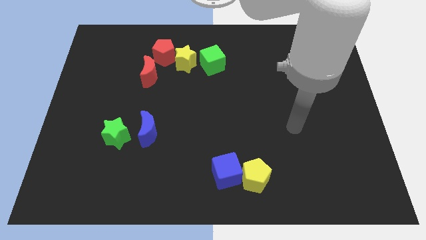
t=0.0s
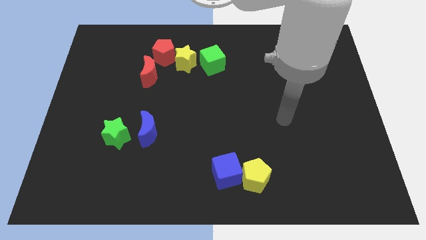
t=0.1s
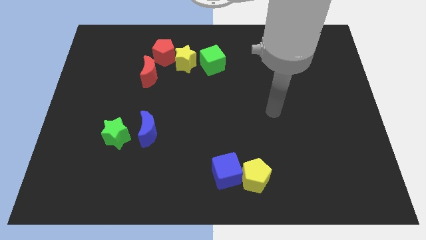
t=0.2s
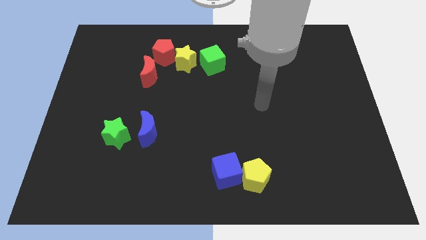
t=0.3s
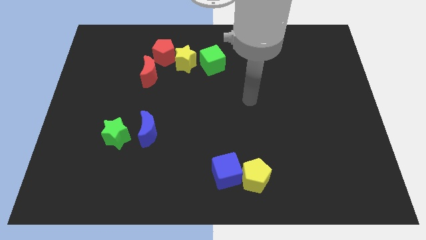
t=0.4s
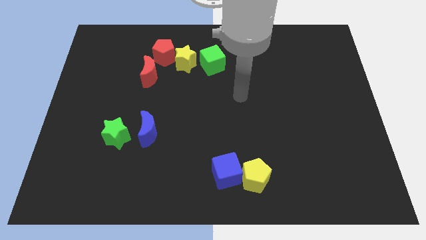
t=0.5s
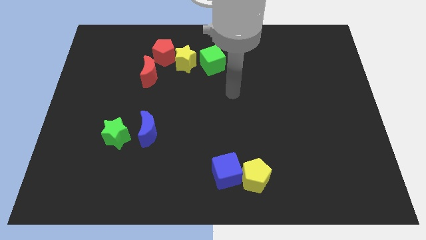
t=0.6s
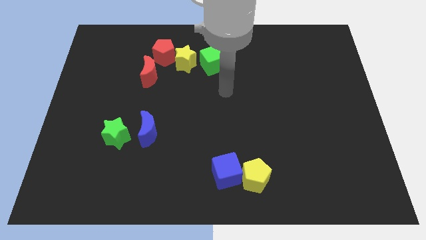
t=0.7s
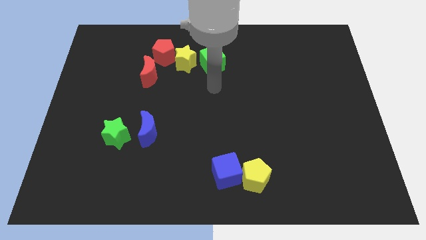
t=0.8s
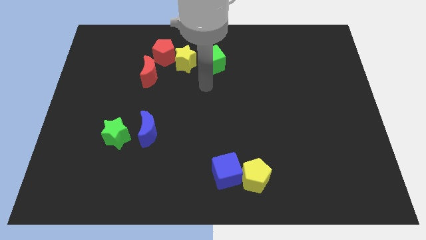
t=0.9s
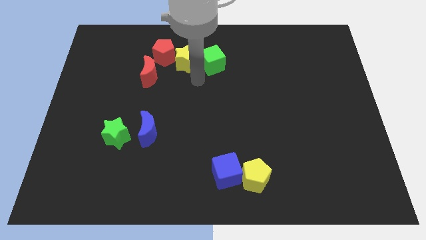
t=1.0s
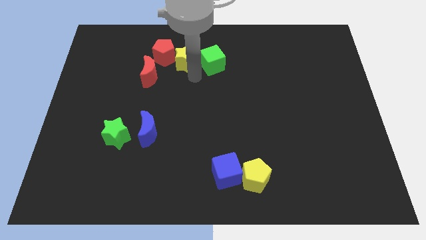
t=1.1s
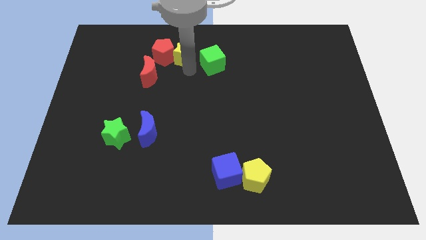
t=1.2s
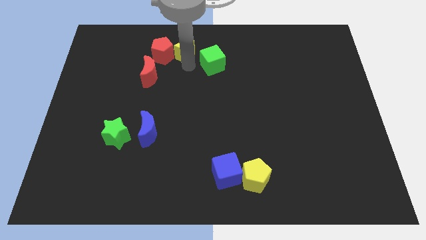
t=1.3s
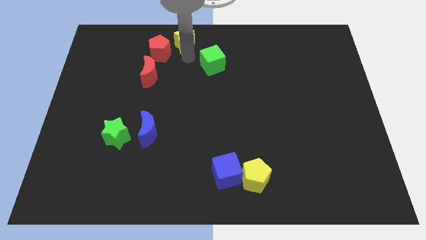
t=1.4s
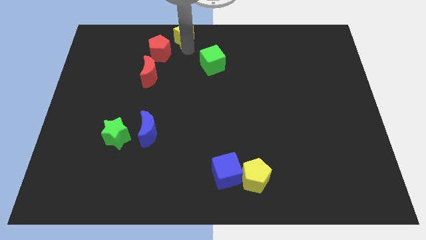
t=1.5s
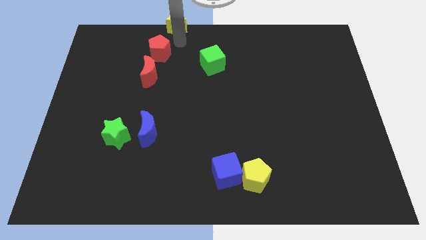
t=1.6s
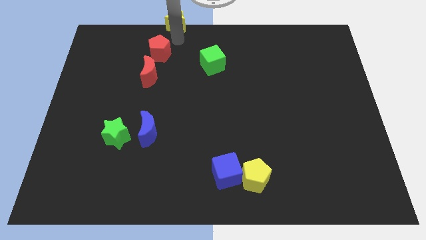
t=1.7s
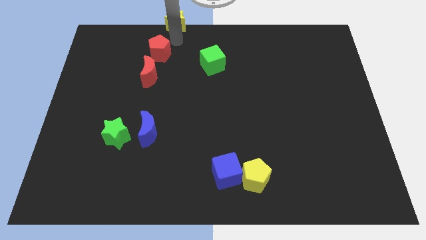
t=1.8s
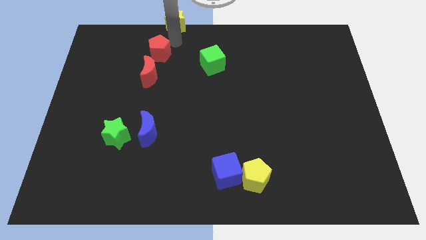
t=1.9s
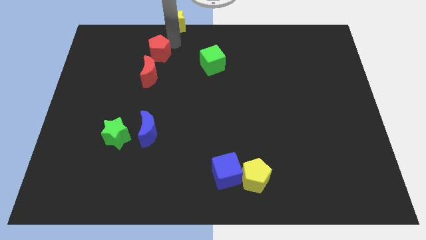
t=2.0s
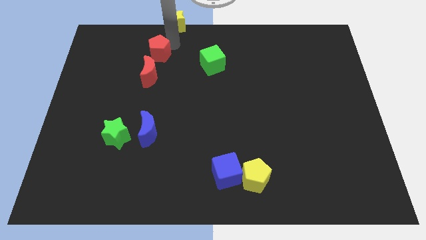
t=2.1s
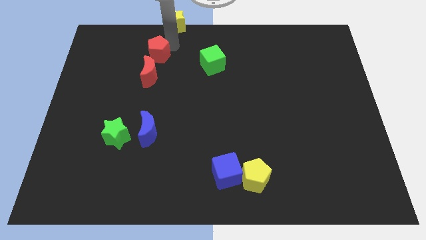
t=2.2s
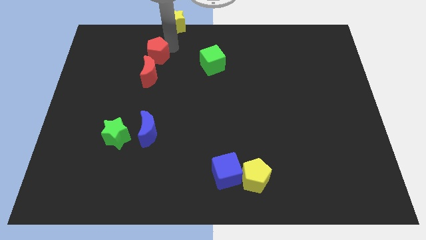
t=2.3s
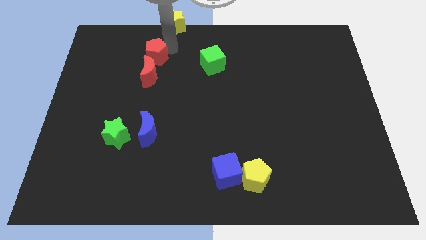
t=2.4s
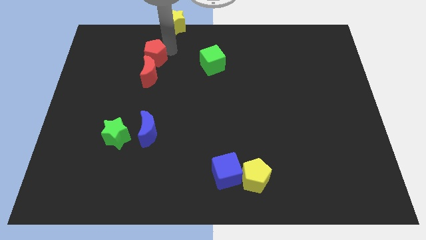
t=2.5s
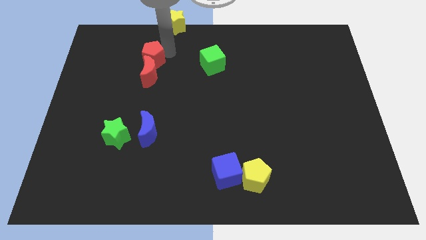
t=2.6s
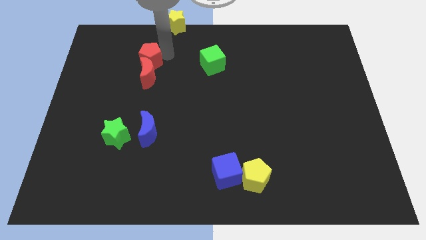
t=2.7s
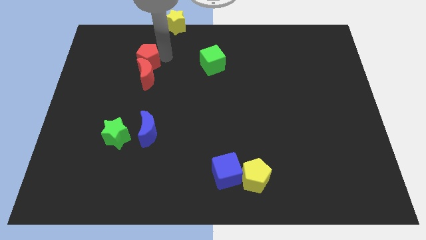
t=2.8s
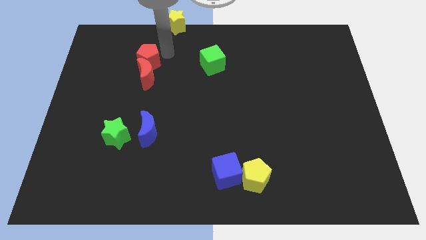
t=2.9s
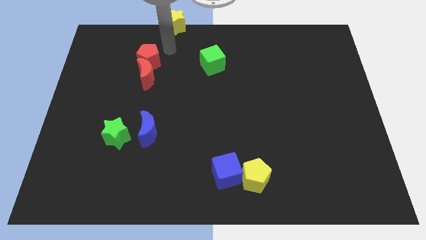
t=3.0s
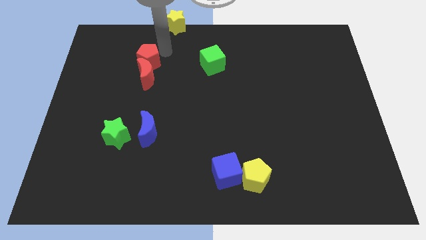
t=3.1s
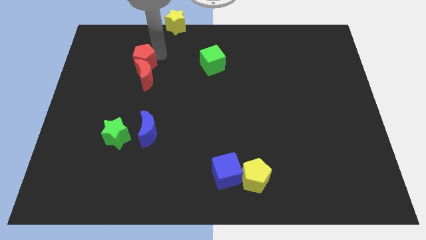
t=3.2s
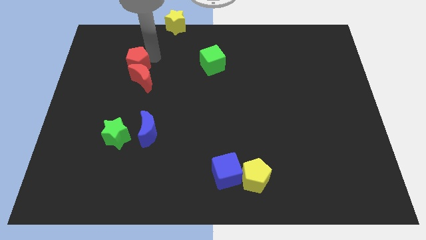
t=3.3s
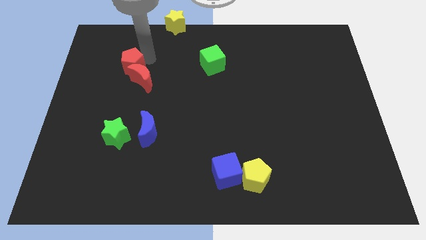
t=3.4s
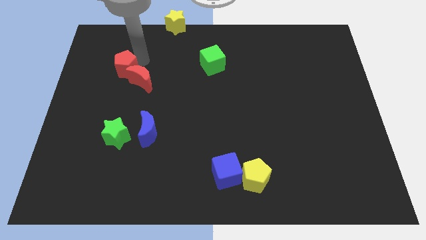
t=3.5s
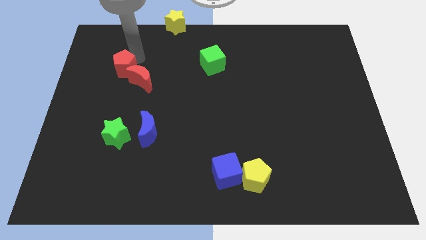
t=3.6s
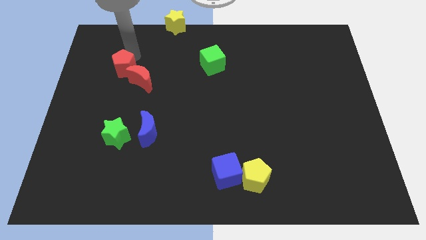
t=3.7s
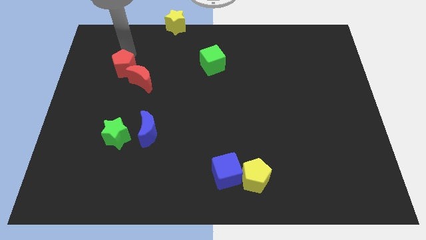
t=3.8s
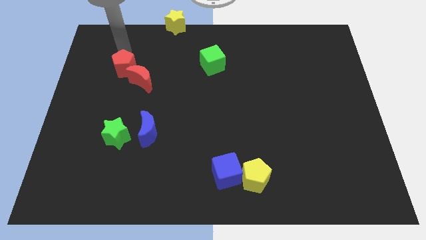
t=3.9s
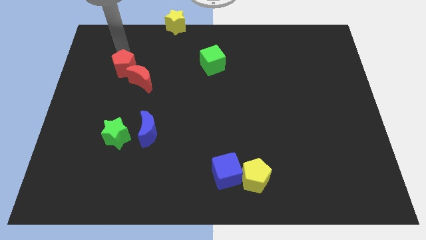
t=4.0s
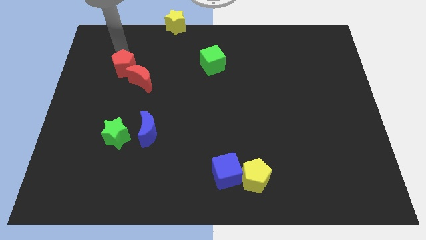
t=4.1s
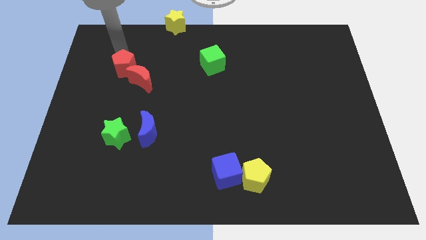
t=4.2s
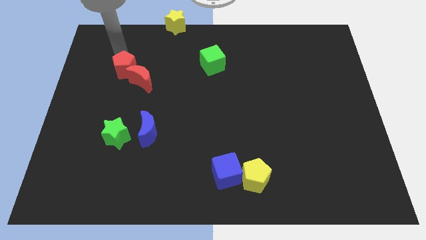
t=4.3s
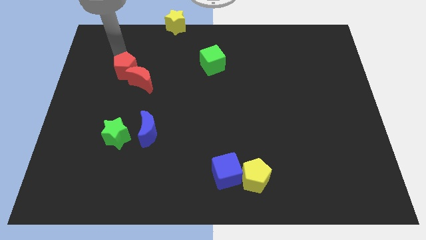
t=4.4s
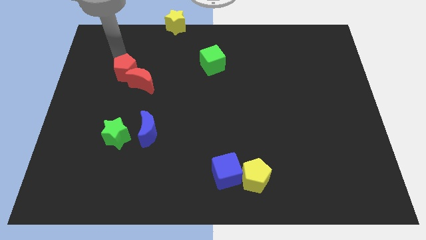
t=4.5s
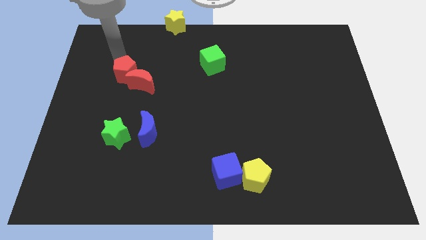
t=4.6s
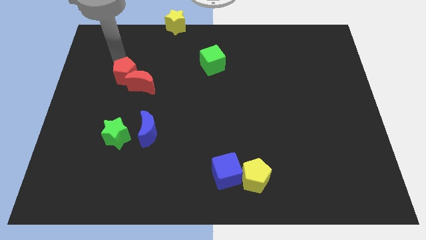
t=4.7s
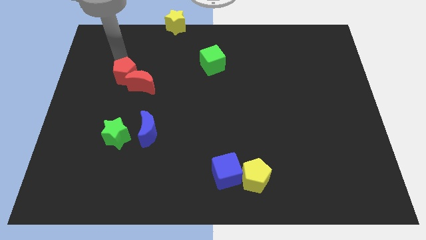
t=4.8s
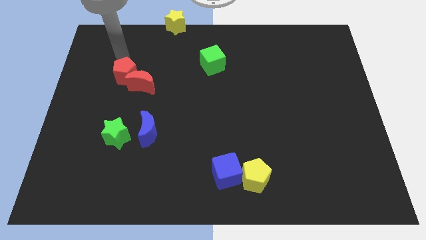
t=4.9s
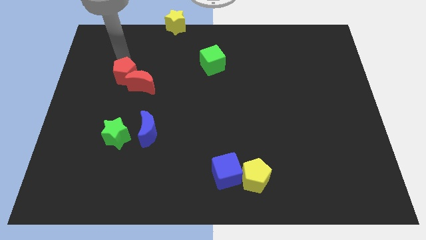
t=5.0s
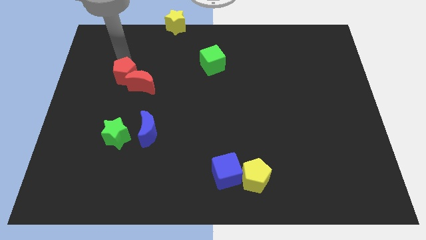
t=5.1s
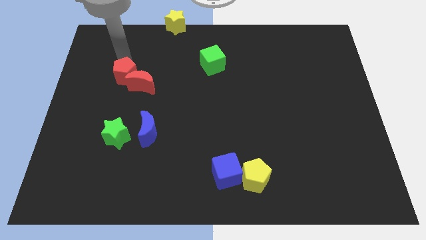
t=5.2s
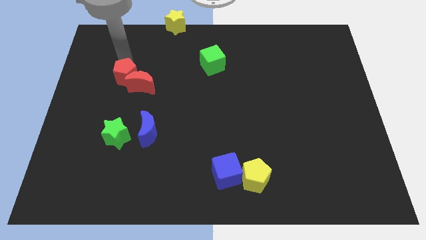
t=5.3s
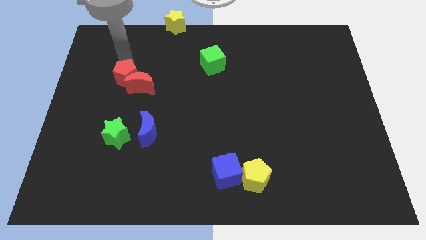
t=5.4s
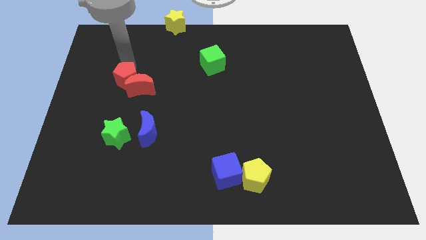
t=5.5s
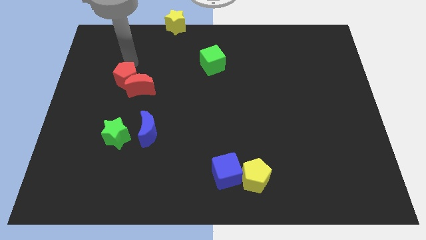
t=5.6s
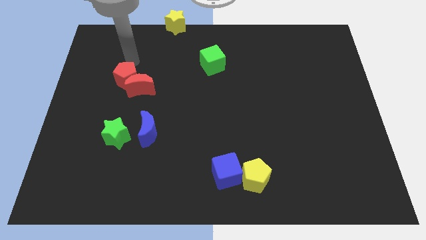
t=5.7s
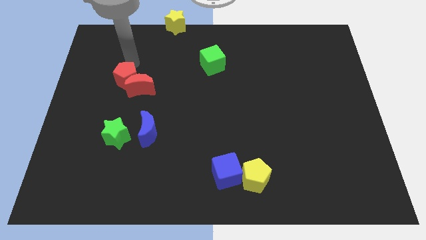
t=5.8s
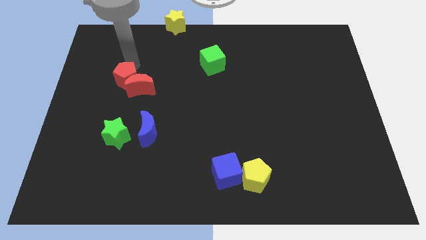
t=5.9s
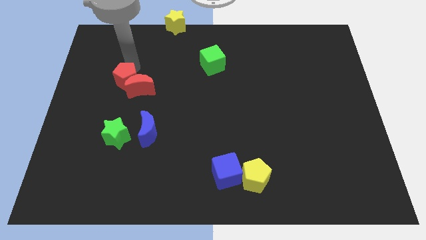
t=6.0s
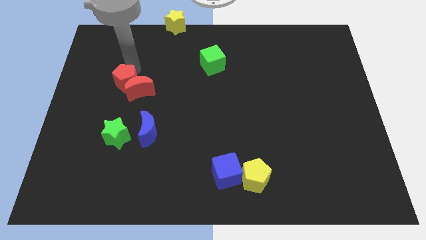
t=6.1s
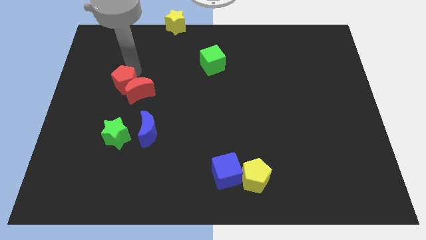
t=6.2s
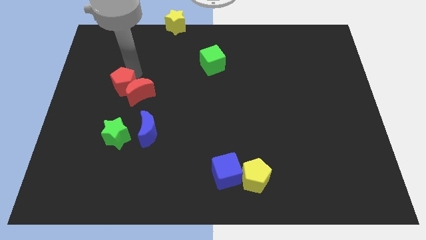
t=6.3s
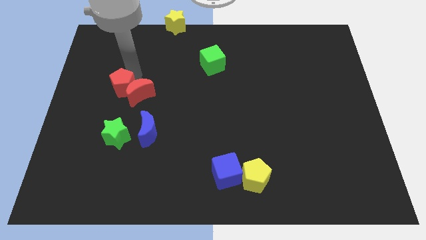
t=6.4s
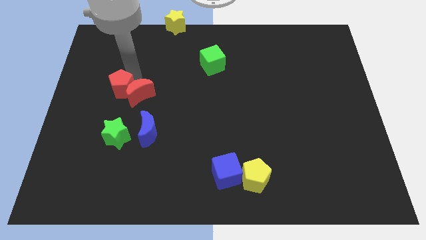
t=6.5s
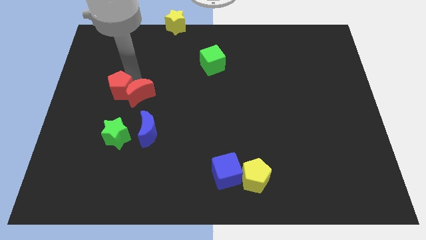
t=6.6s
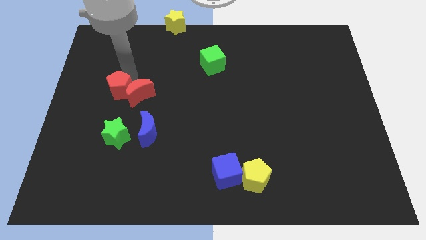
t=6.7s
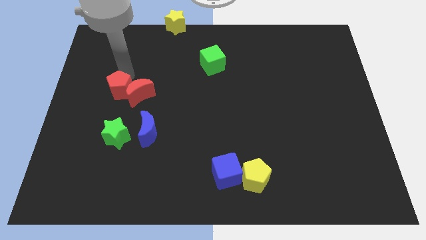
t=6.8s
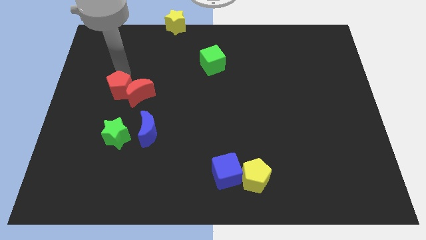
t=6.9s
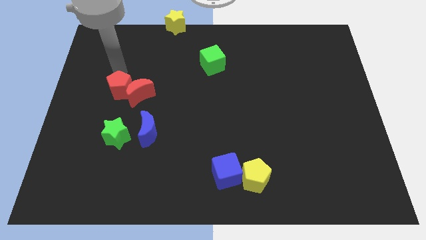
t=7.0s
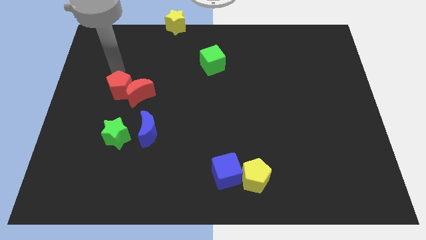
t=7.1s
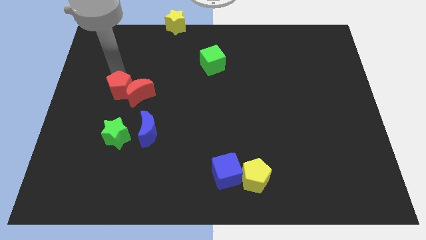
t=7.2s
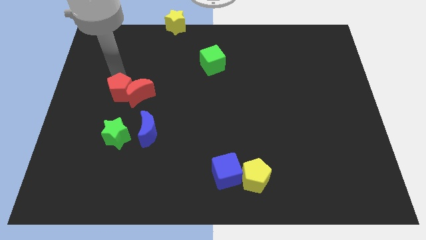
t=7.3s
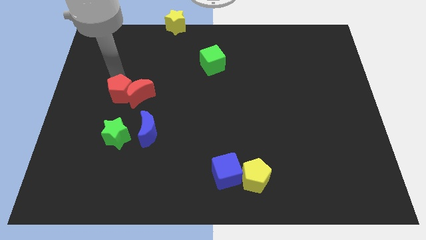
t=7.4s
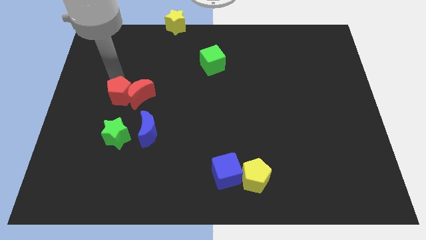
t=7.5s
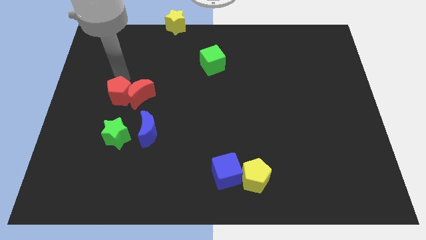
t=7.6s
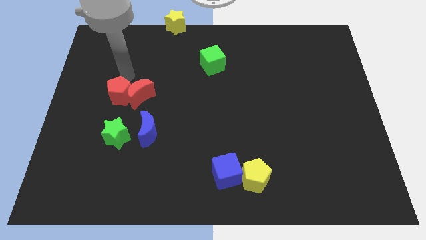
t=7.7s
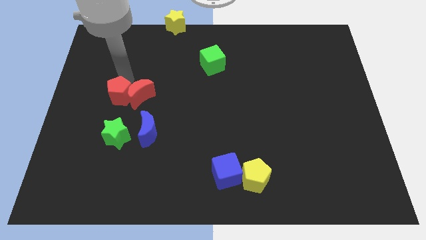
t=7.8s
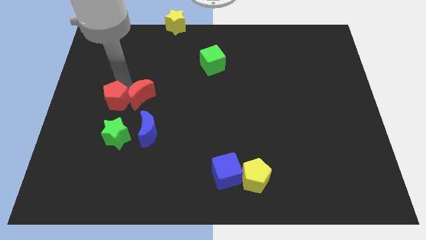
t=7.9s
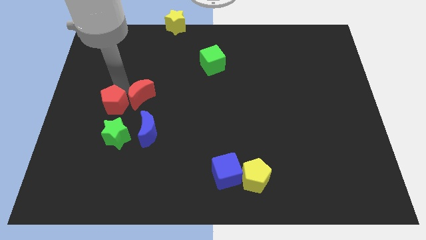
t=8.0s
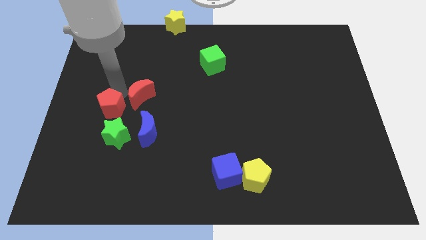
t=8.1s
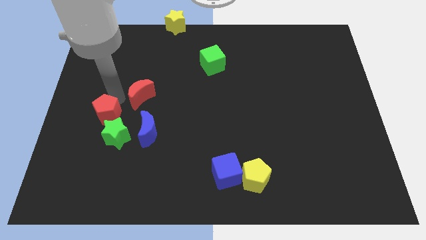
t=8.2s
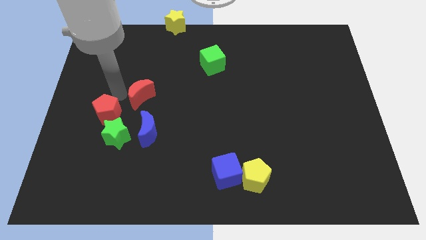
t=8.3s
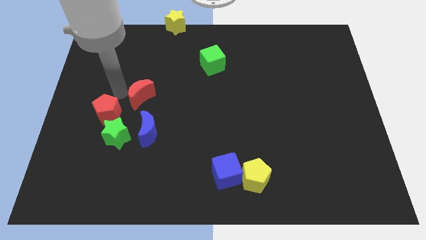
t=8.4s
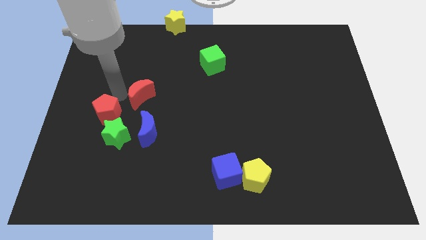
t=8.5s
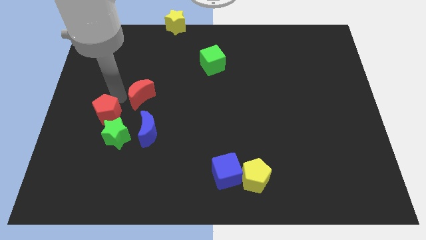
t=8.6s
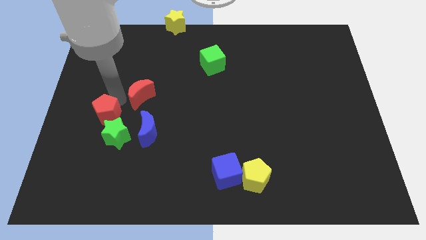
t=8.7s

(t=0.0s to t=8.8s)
put the red pentagon to the left of the blue moon
